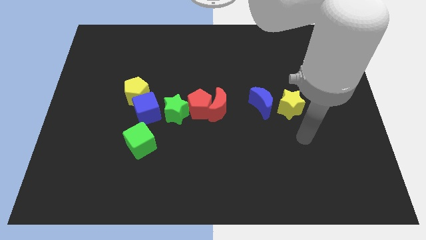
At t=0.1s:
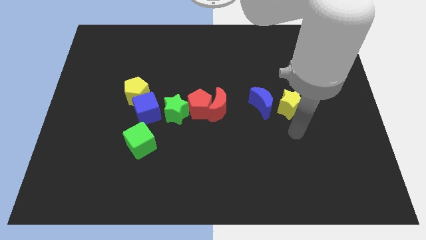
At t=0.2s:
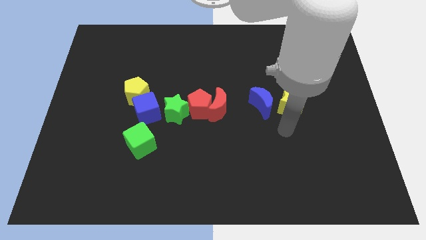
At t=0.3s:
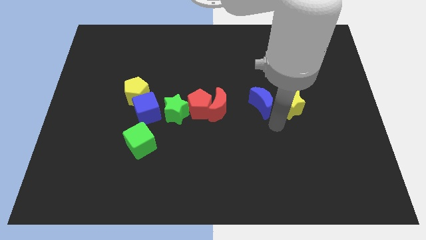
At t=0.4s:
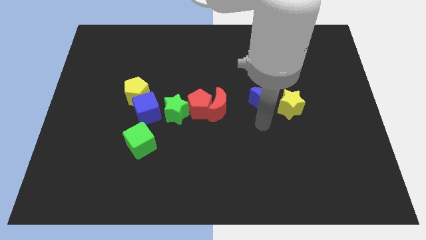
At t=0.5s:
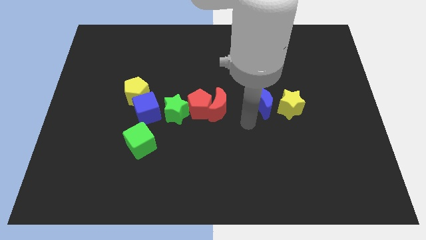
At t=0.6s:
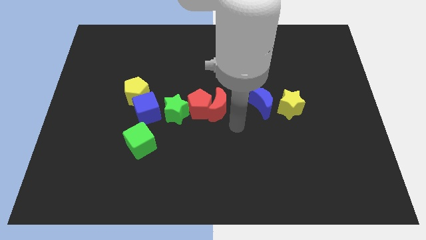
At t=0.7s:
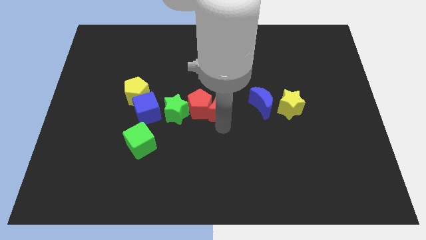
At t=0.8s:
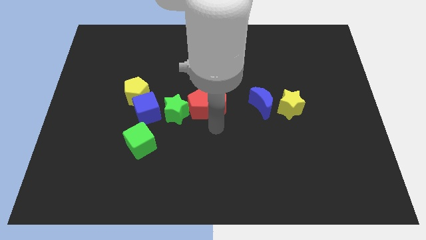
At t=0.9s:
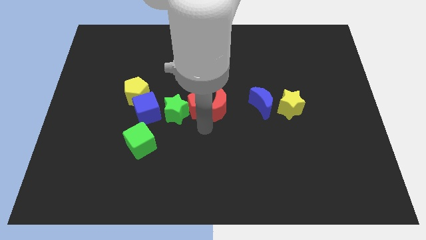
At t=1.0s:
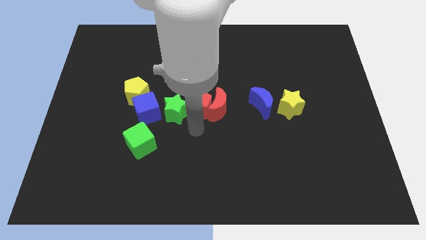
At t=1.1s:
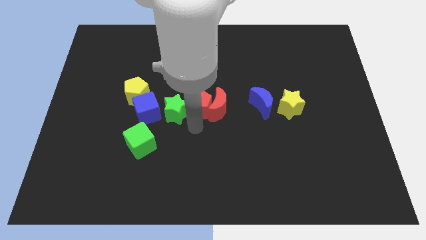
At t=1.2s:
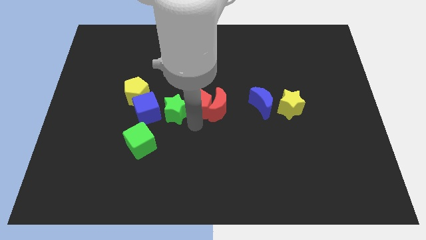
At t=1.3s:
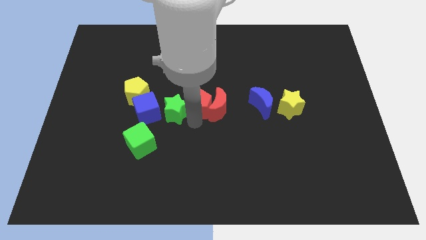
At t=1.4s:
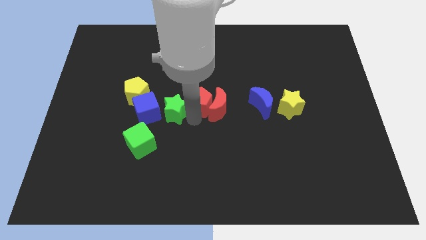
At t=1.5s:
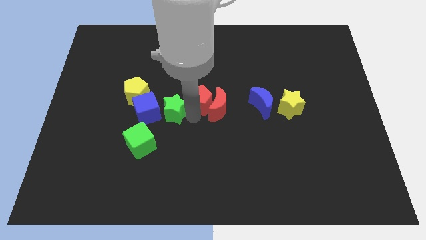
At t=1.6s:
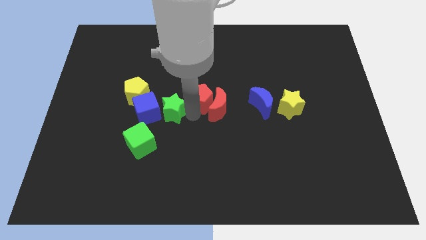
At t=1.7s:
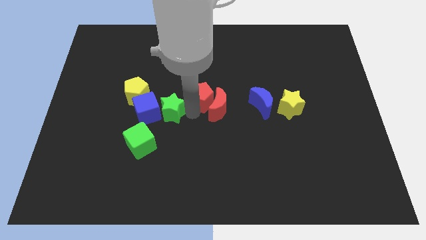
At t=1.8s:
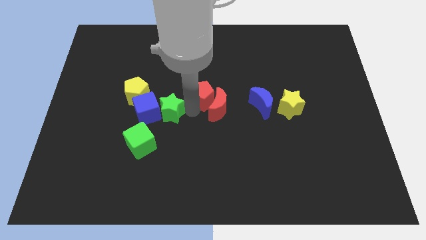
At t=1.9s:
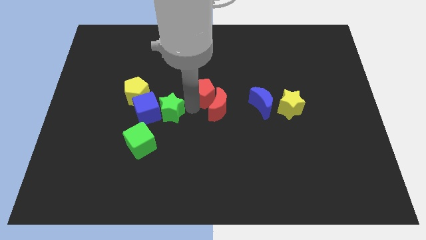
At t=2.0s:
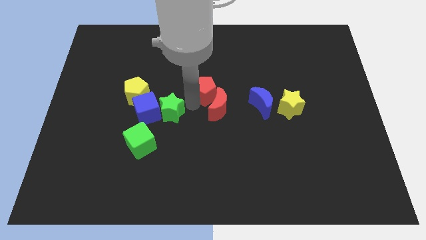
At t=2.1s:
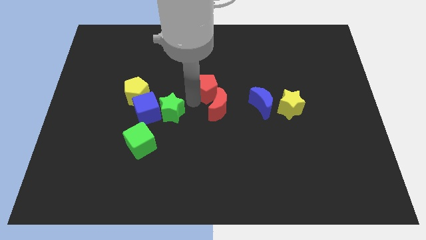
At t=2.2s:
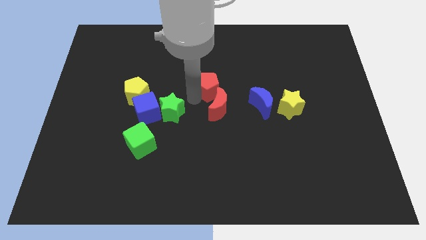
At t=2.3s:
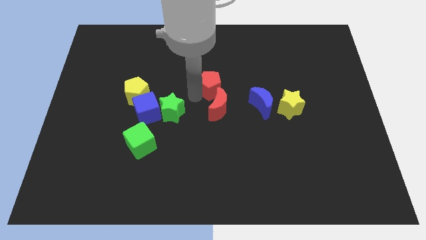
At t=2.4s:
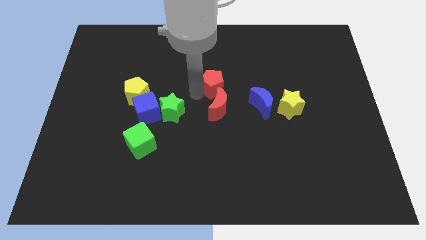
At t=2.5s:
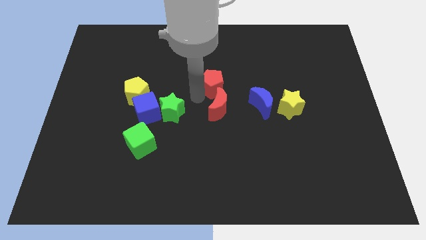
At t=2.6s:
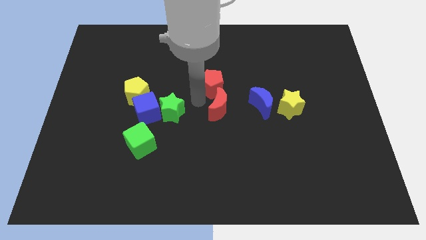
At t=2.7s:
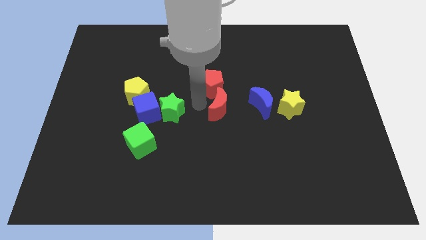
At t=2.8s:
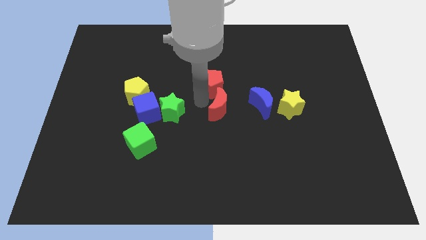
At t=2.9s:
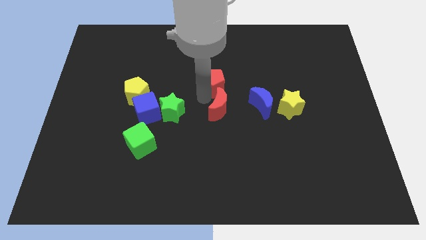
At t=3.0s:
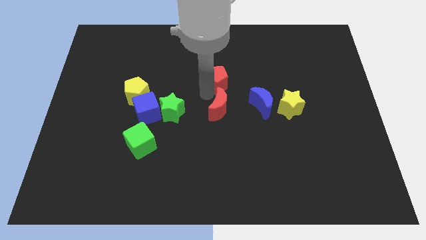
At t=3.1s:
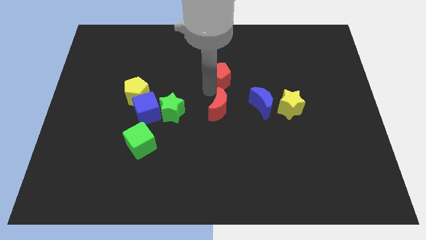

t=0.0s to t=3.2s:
separate the red pentagon from the red moon and green star

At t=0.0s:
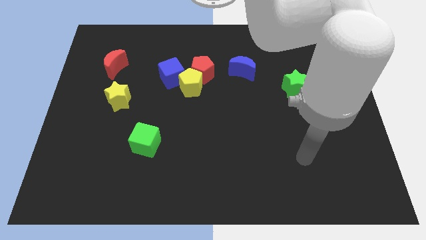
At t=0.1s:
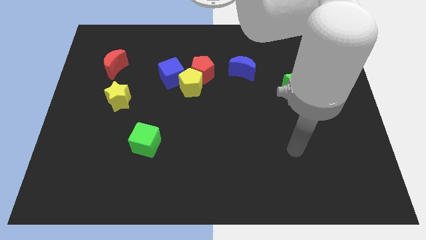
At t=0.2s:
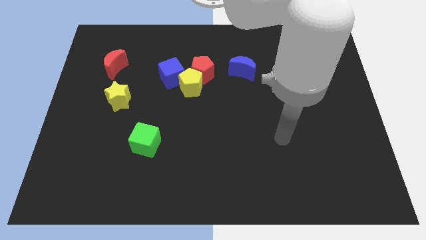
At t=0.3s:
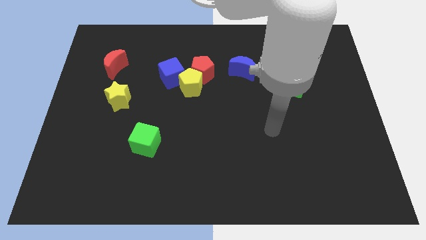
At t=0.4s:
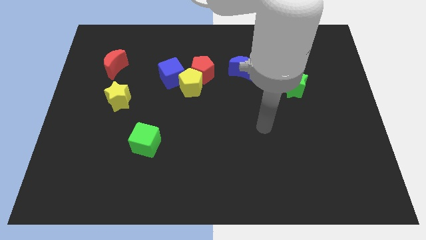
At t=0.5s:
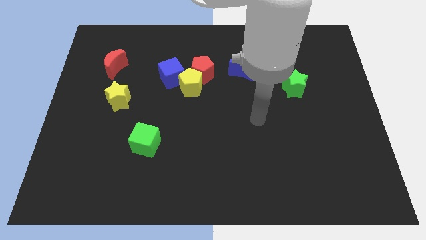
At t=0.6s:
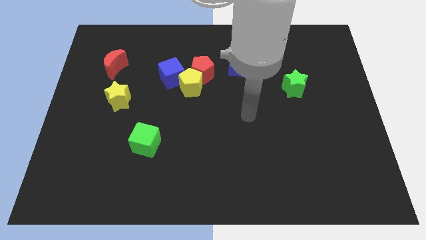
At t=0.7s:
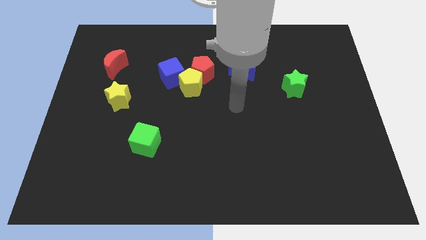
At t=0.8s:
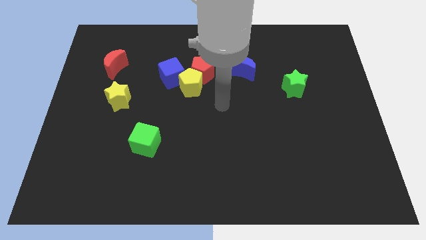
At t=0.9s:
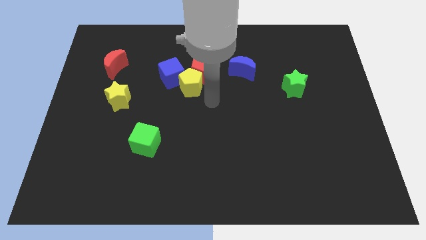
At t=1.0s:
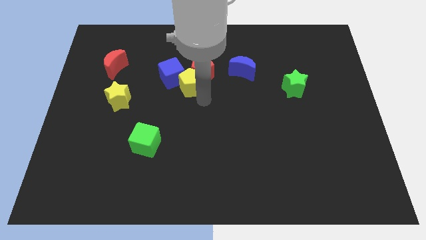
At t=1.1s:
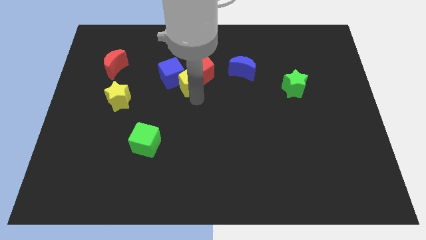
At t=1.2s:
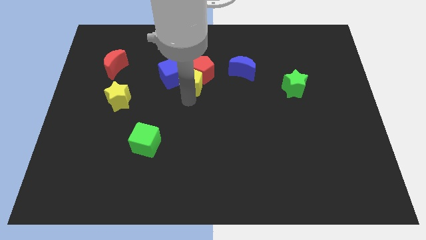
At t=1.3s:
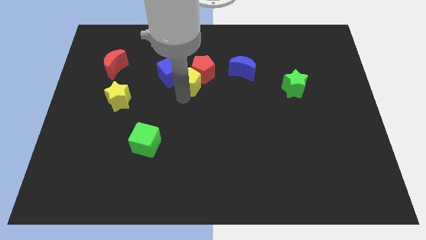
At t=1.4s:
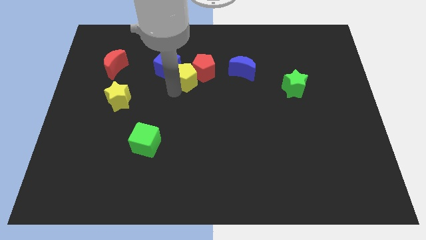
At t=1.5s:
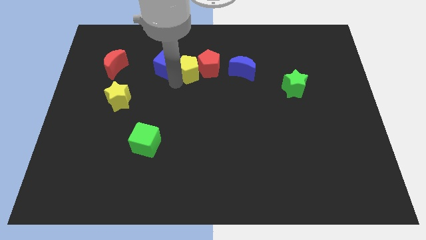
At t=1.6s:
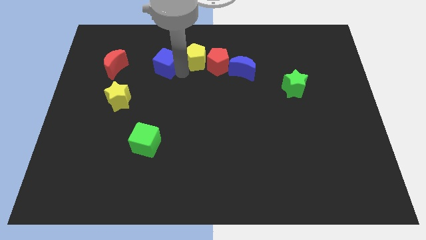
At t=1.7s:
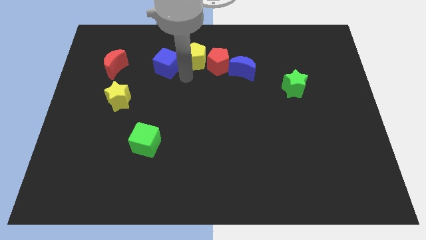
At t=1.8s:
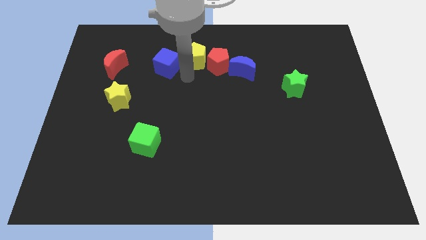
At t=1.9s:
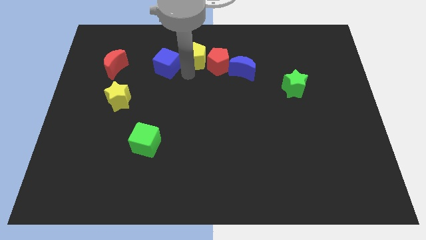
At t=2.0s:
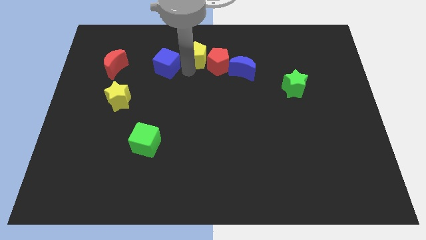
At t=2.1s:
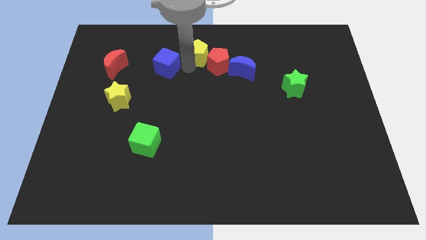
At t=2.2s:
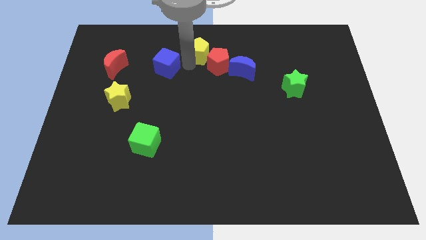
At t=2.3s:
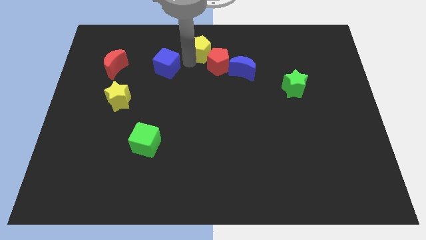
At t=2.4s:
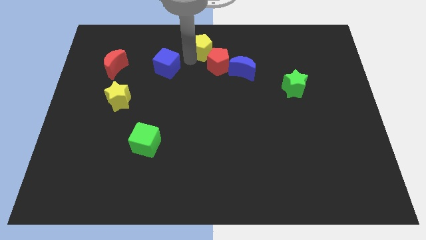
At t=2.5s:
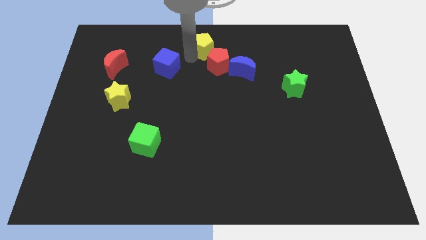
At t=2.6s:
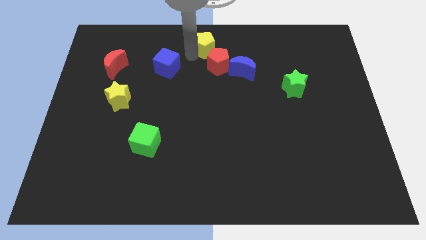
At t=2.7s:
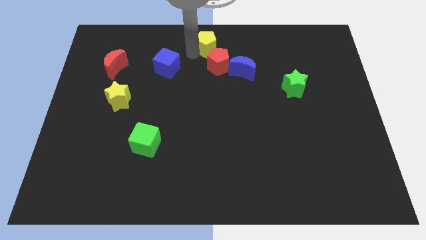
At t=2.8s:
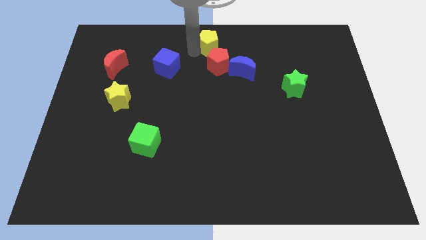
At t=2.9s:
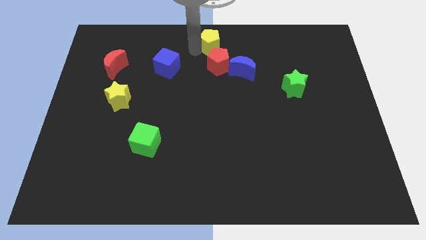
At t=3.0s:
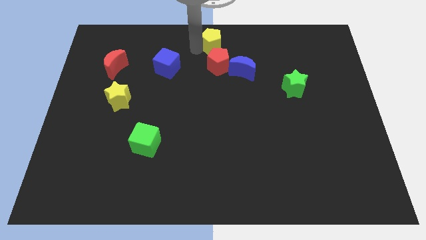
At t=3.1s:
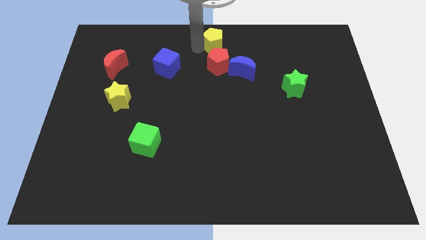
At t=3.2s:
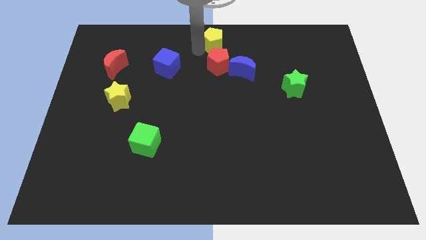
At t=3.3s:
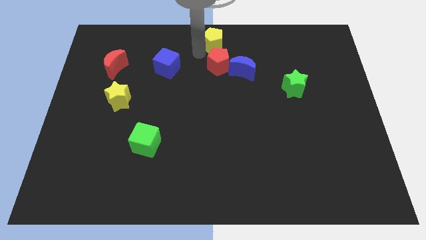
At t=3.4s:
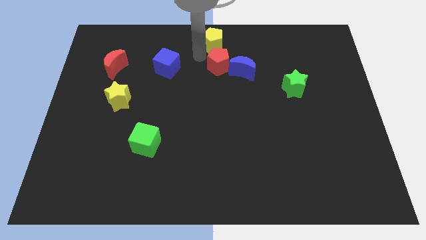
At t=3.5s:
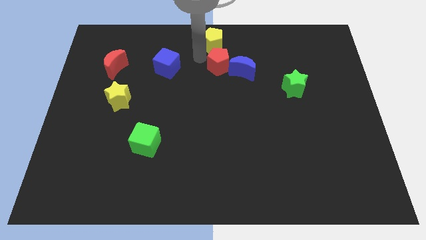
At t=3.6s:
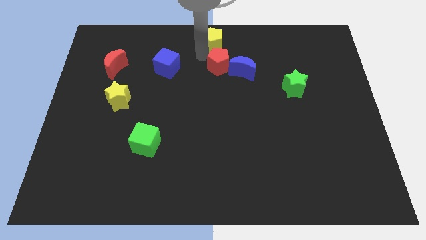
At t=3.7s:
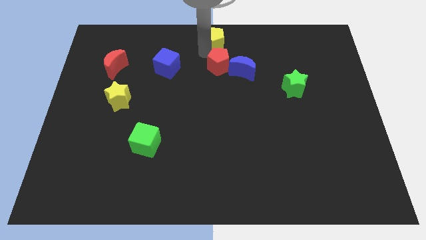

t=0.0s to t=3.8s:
separate the yellow pentagon from the red pentagon and blue cube

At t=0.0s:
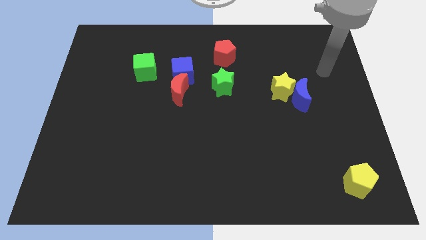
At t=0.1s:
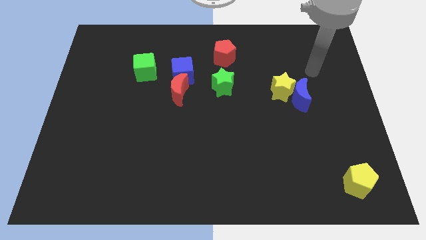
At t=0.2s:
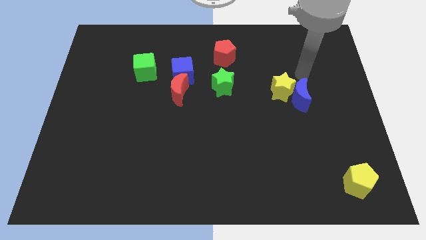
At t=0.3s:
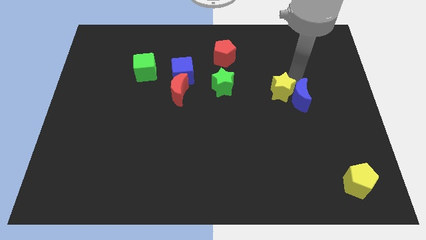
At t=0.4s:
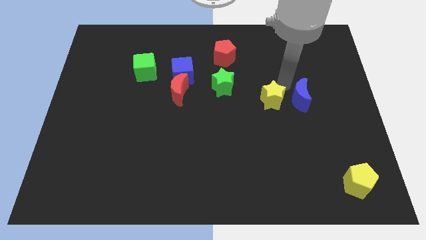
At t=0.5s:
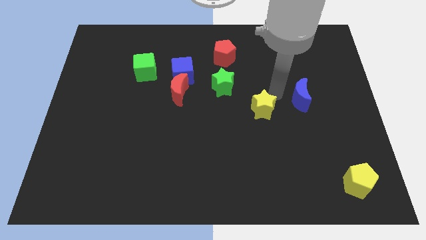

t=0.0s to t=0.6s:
separate the blue moon from the yellow star

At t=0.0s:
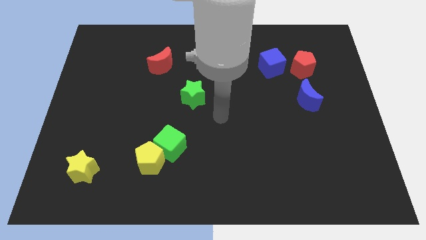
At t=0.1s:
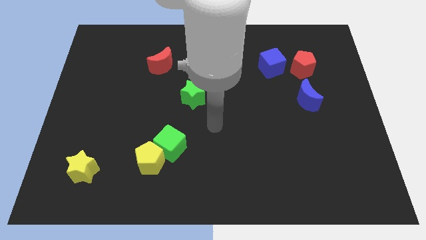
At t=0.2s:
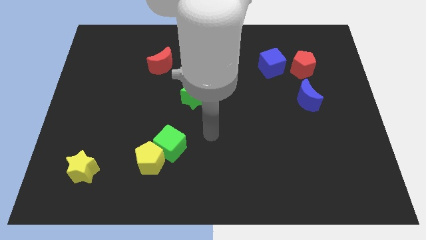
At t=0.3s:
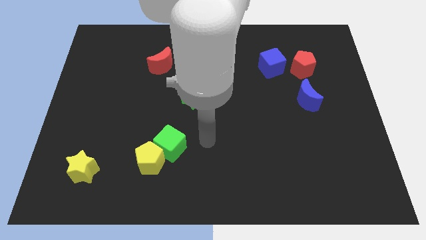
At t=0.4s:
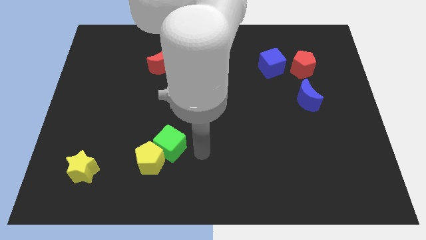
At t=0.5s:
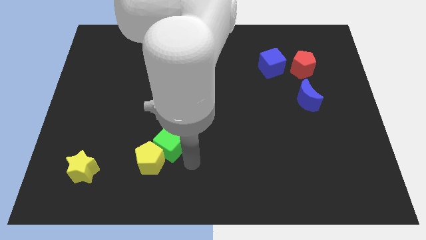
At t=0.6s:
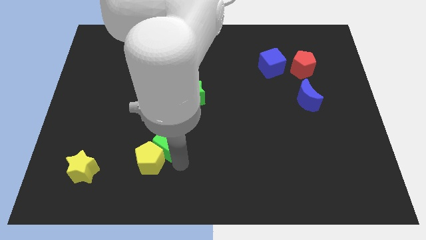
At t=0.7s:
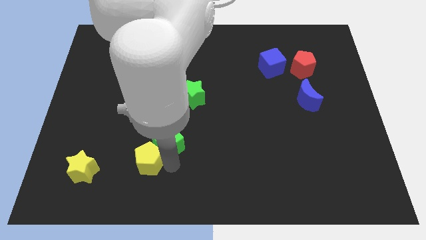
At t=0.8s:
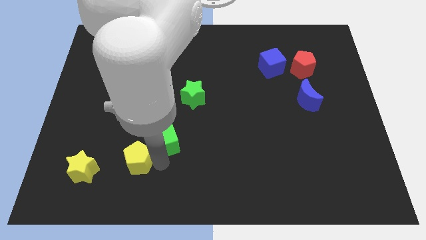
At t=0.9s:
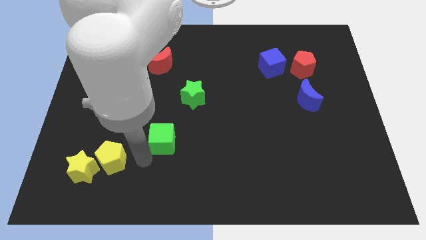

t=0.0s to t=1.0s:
pull the green cube apart from the yellow pentagon

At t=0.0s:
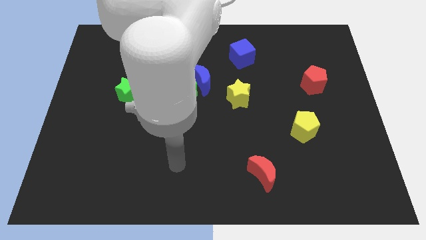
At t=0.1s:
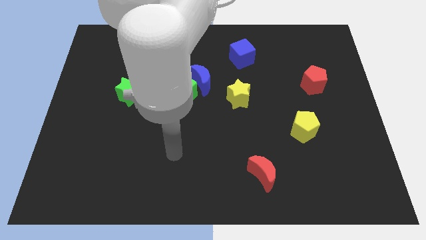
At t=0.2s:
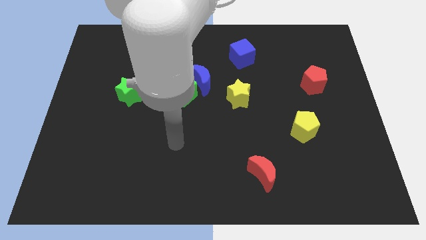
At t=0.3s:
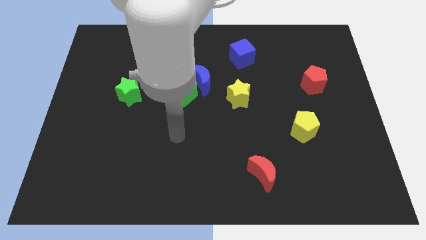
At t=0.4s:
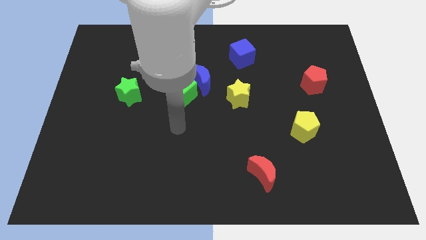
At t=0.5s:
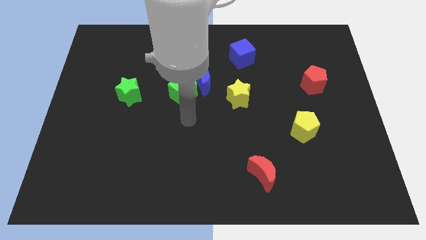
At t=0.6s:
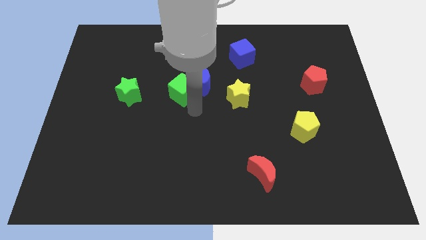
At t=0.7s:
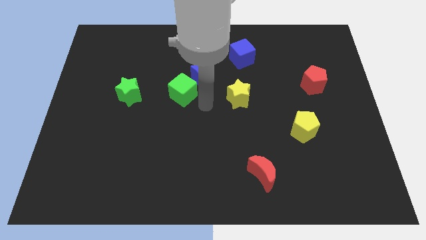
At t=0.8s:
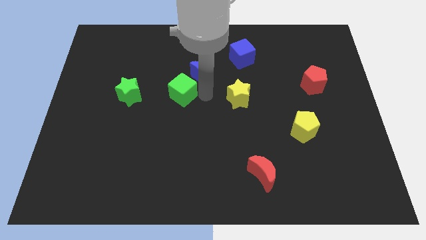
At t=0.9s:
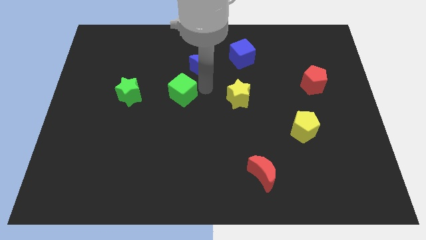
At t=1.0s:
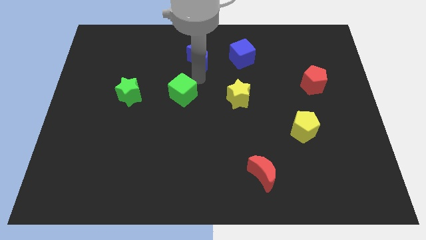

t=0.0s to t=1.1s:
separate the green cube from the blue moon
